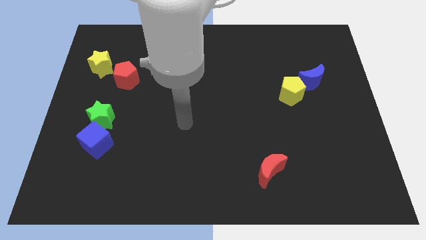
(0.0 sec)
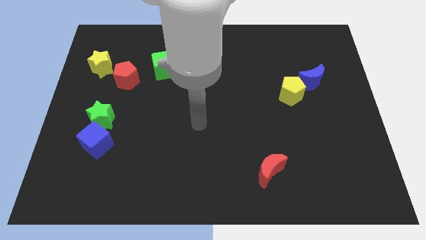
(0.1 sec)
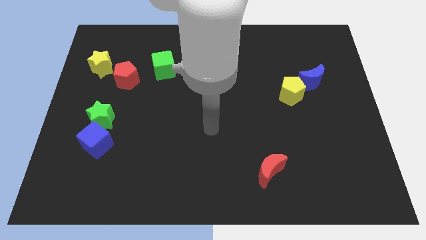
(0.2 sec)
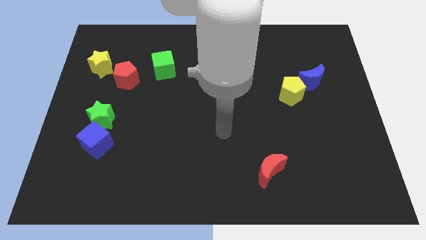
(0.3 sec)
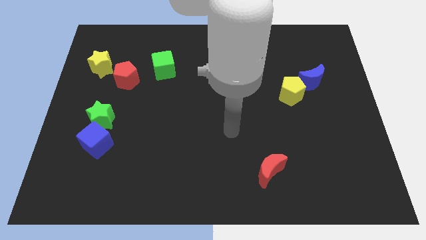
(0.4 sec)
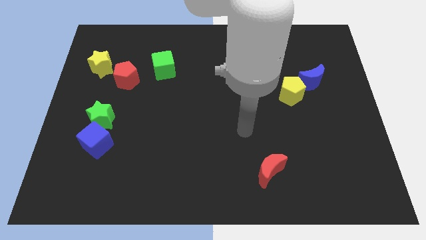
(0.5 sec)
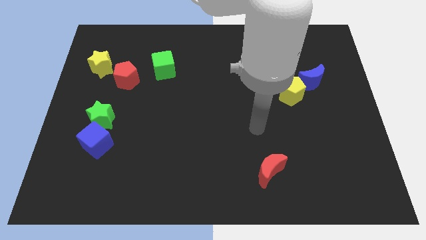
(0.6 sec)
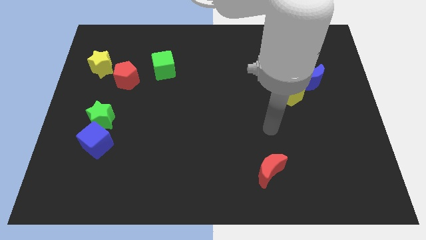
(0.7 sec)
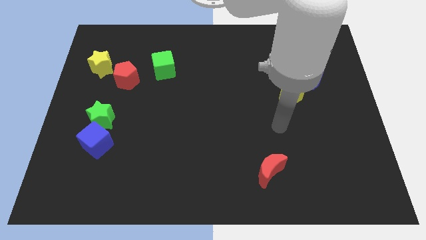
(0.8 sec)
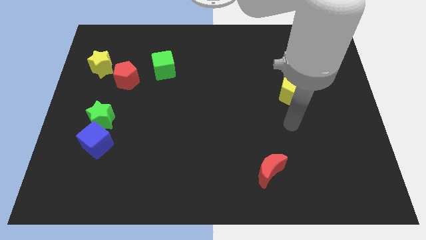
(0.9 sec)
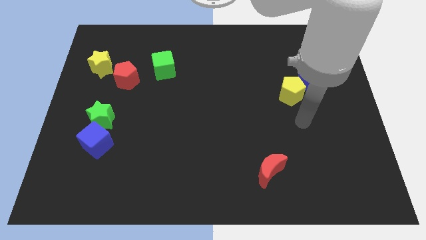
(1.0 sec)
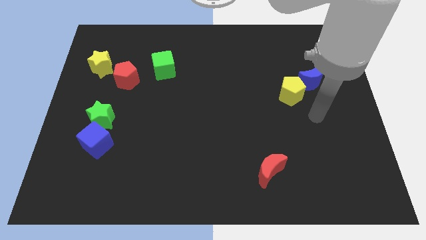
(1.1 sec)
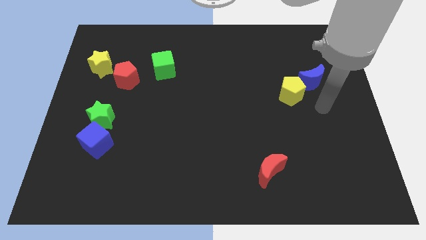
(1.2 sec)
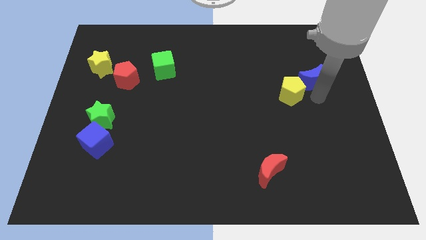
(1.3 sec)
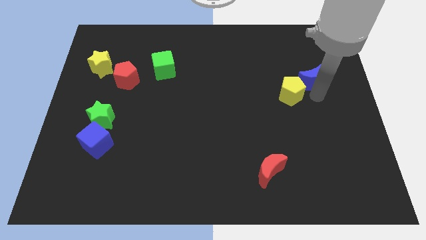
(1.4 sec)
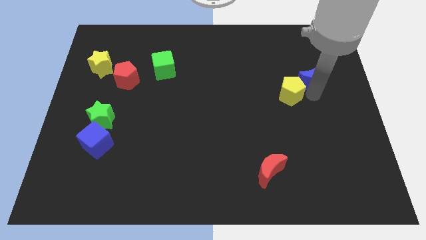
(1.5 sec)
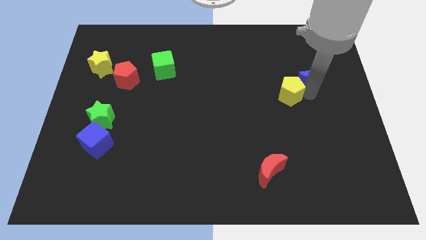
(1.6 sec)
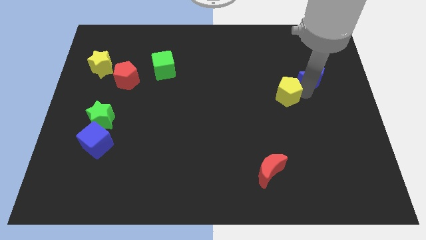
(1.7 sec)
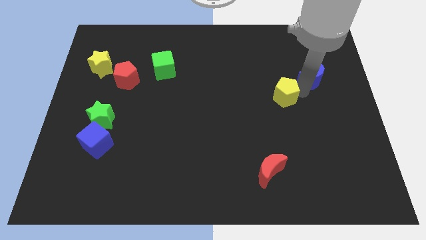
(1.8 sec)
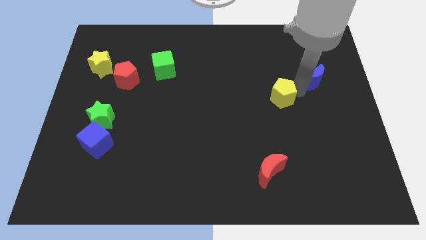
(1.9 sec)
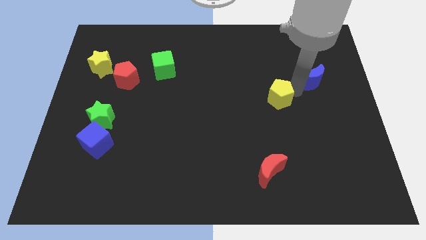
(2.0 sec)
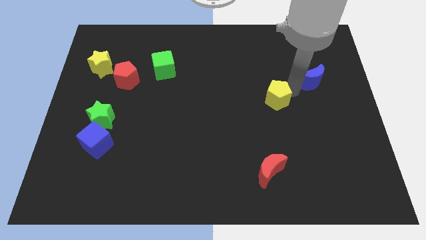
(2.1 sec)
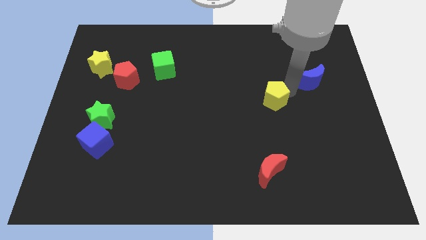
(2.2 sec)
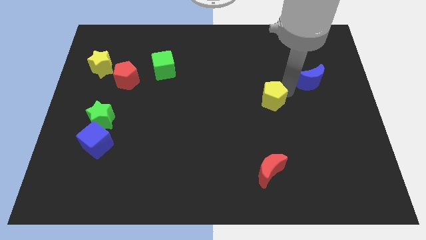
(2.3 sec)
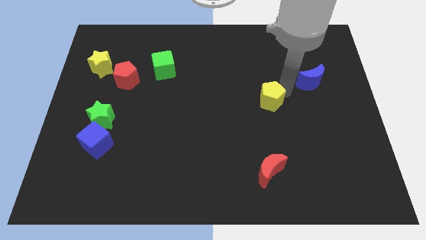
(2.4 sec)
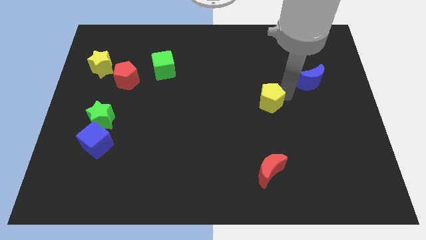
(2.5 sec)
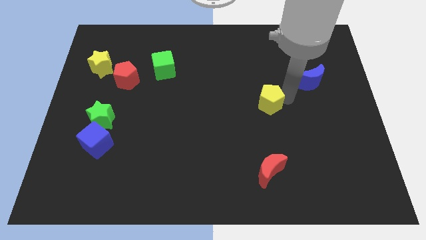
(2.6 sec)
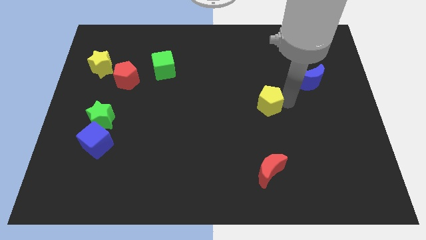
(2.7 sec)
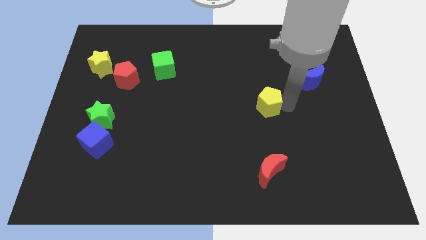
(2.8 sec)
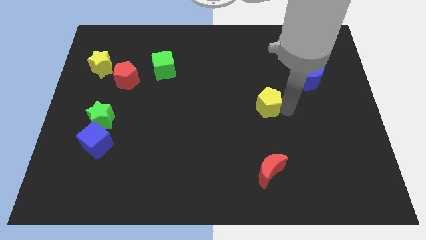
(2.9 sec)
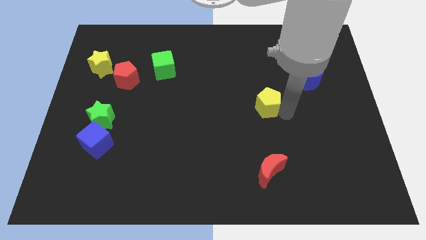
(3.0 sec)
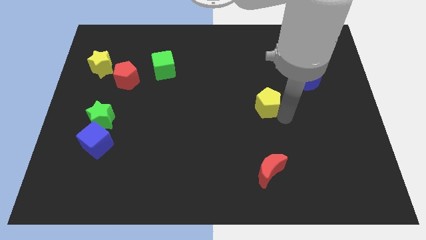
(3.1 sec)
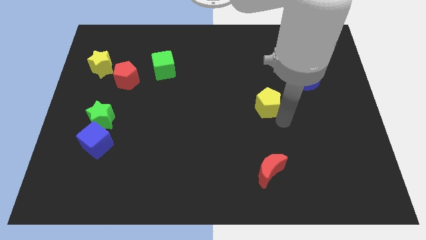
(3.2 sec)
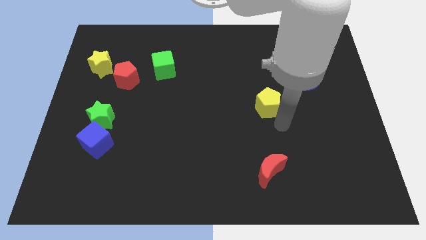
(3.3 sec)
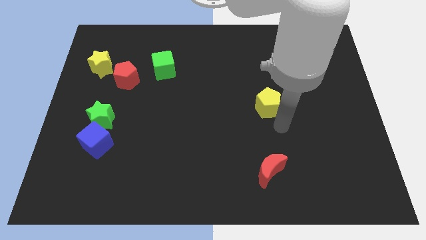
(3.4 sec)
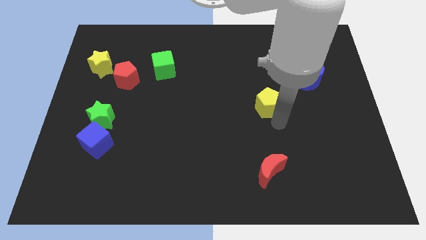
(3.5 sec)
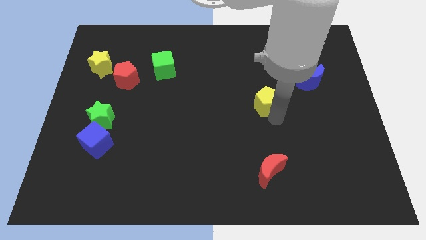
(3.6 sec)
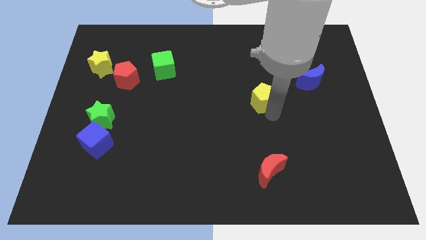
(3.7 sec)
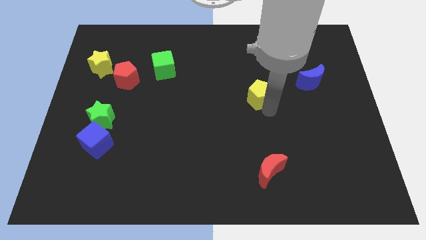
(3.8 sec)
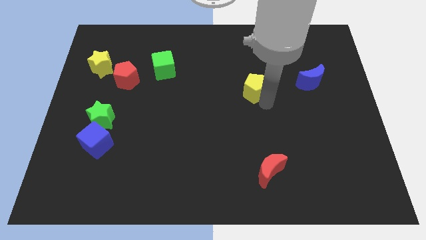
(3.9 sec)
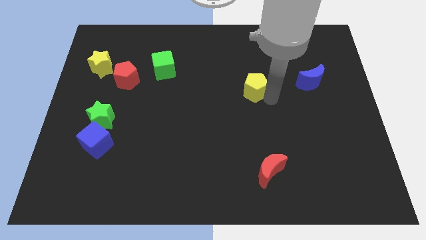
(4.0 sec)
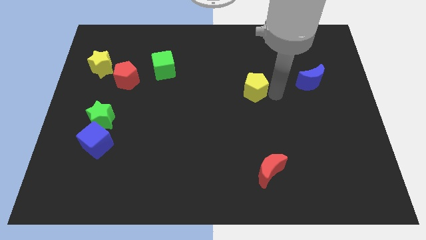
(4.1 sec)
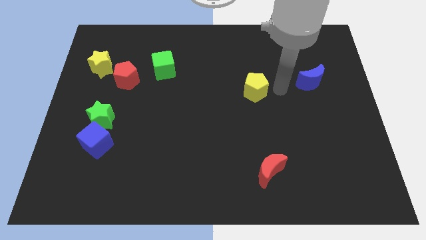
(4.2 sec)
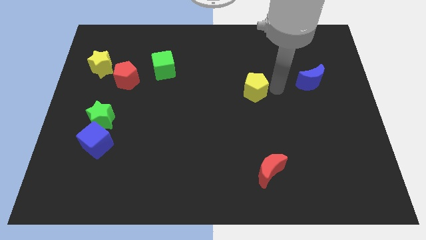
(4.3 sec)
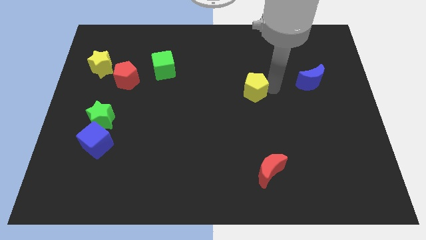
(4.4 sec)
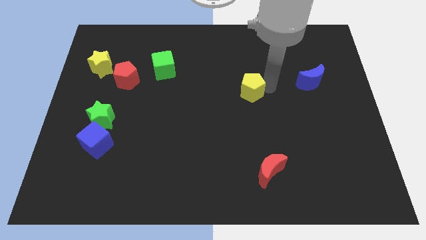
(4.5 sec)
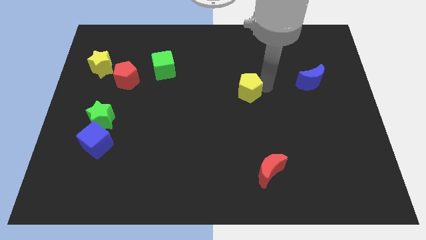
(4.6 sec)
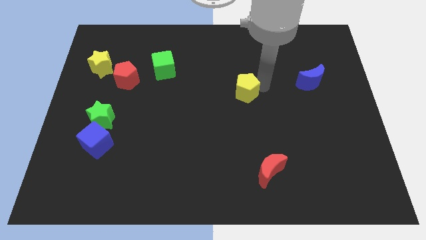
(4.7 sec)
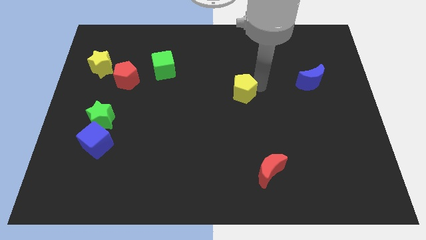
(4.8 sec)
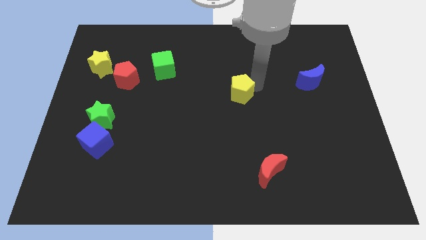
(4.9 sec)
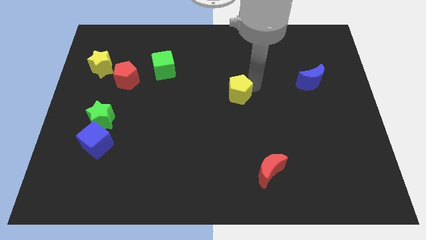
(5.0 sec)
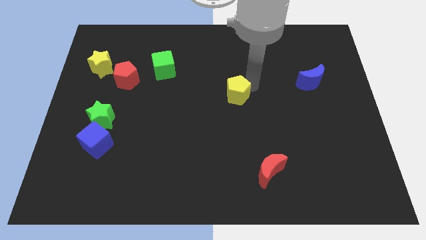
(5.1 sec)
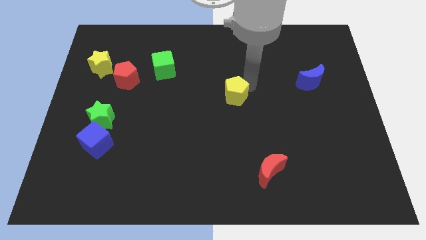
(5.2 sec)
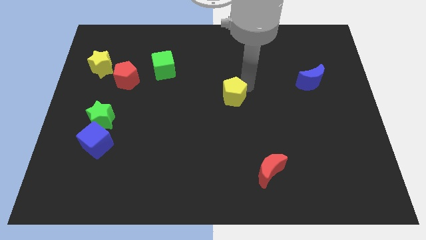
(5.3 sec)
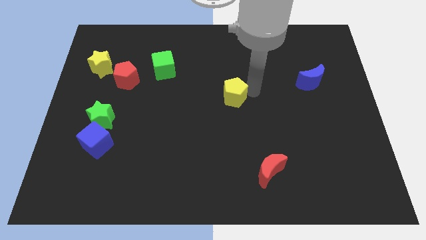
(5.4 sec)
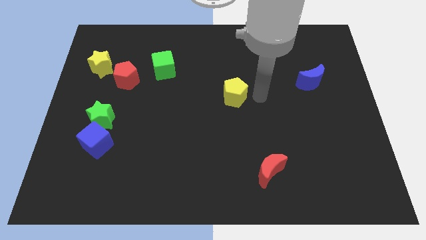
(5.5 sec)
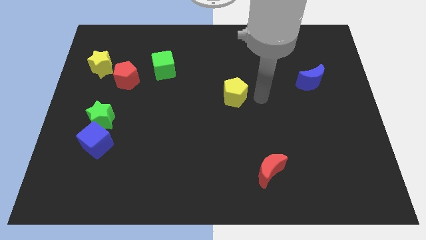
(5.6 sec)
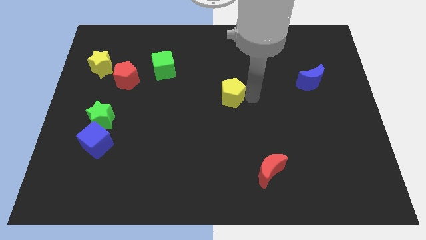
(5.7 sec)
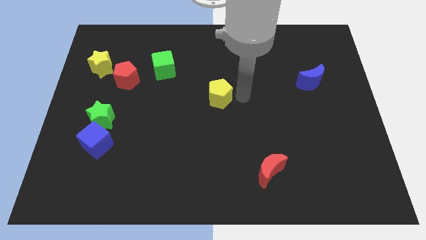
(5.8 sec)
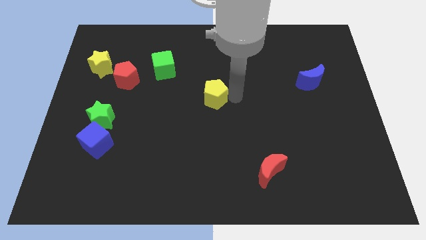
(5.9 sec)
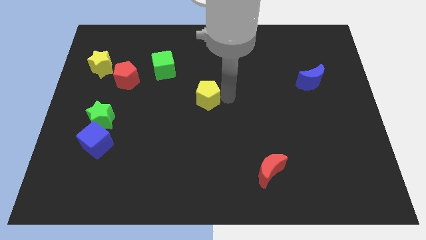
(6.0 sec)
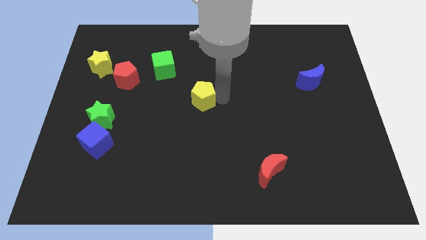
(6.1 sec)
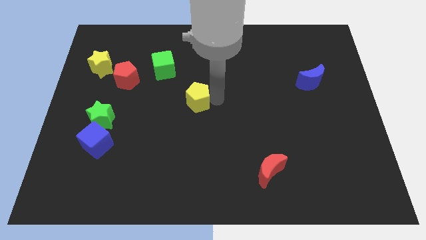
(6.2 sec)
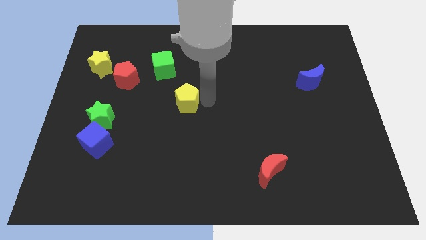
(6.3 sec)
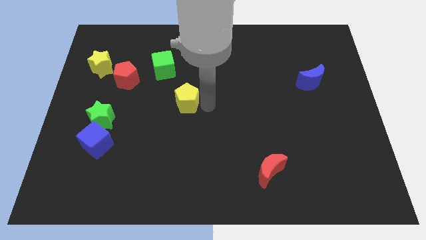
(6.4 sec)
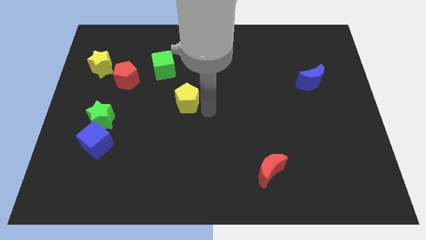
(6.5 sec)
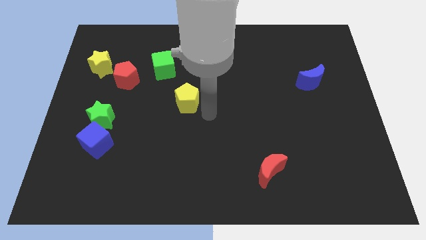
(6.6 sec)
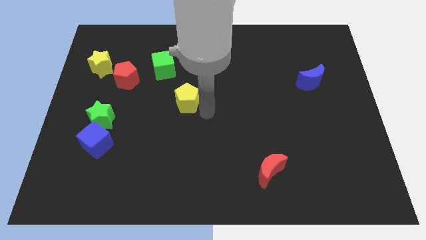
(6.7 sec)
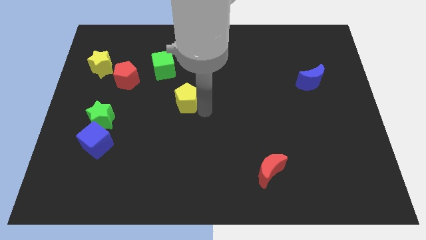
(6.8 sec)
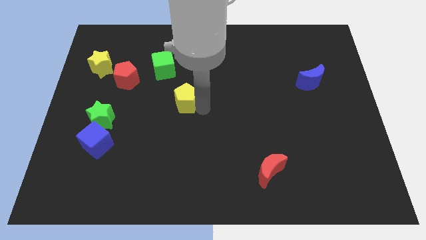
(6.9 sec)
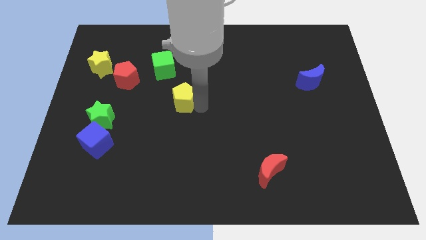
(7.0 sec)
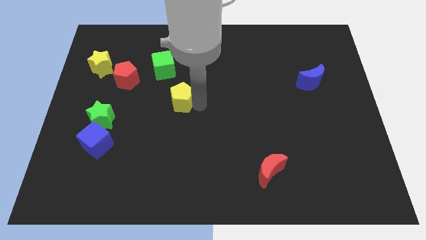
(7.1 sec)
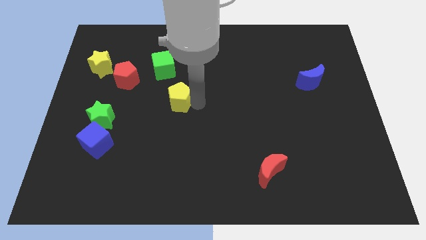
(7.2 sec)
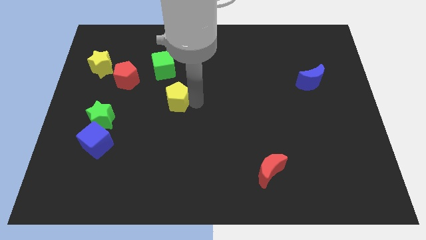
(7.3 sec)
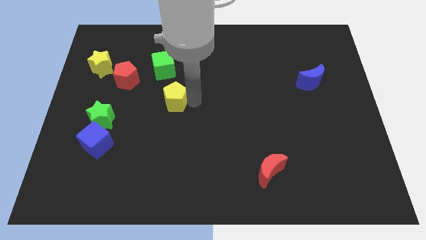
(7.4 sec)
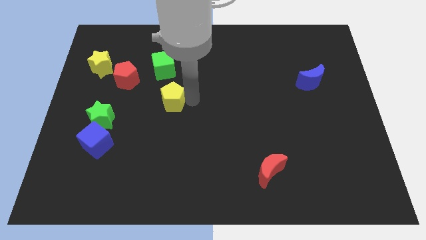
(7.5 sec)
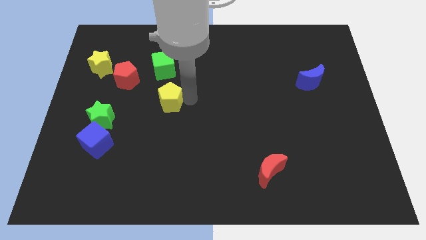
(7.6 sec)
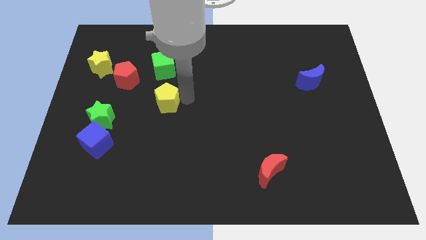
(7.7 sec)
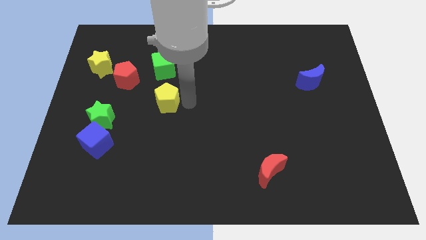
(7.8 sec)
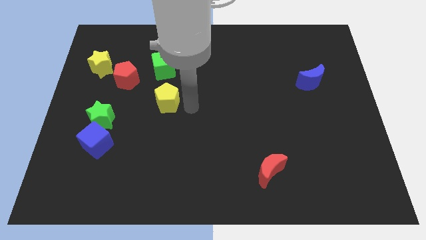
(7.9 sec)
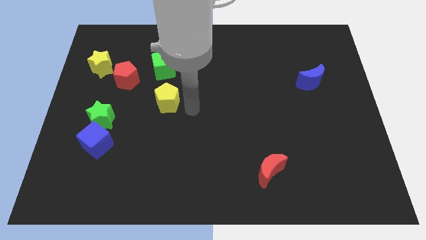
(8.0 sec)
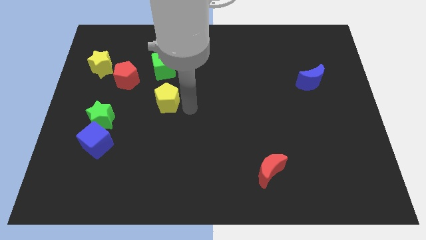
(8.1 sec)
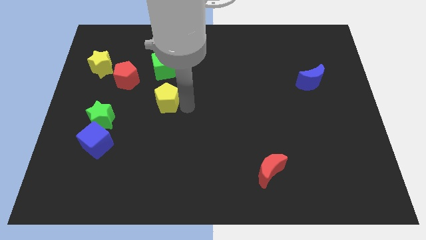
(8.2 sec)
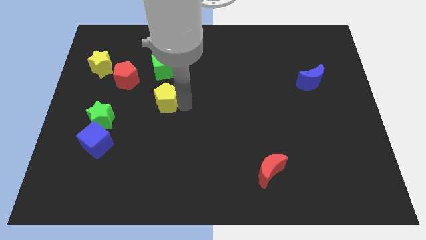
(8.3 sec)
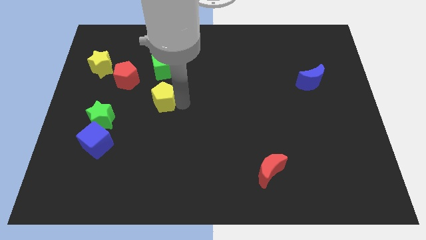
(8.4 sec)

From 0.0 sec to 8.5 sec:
move the yellow pentagon to the bottom right of the red pentagon
